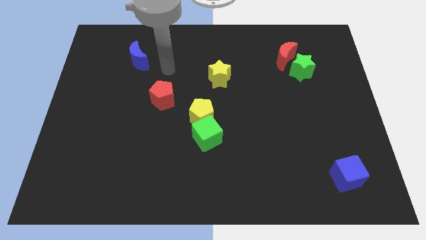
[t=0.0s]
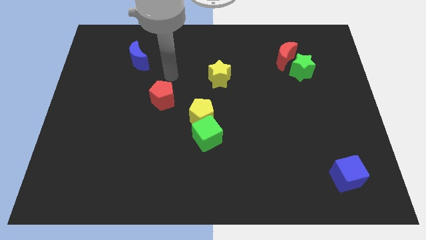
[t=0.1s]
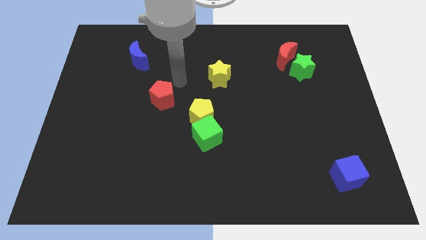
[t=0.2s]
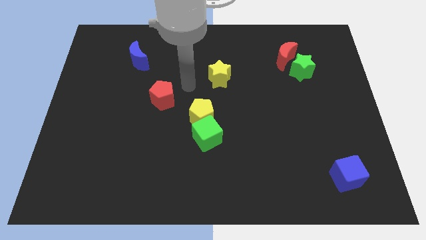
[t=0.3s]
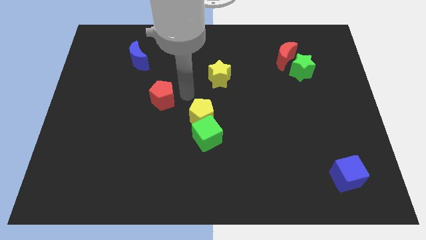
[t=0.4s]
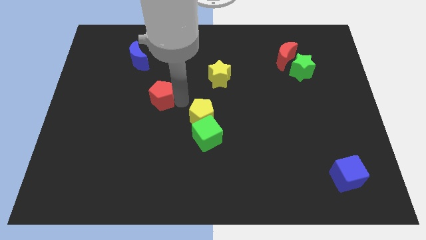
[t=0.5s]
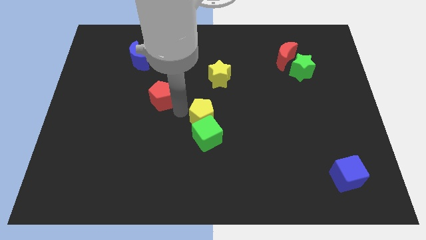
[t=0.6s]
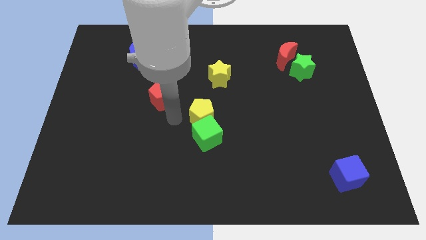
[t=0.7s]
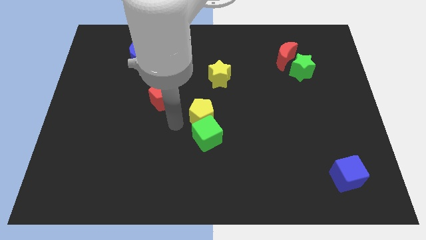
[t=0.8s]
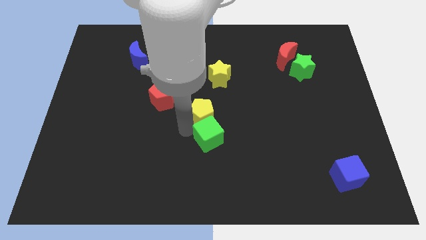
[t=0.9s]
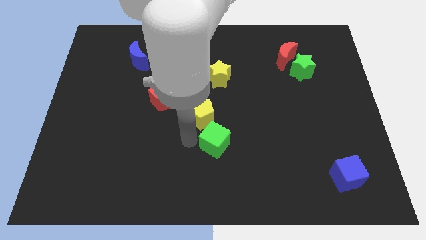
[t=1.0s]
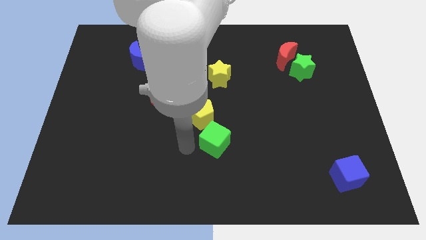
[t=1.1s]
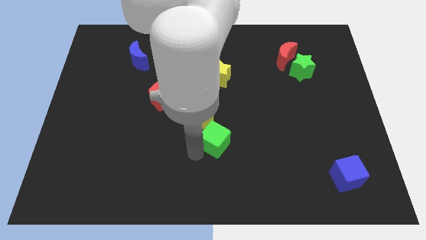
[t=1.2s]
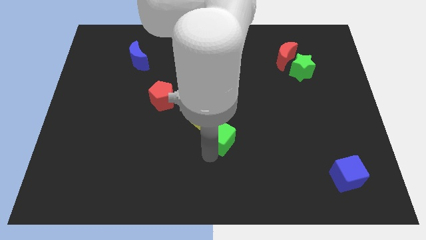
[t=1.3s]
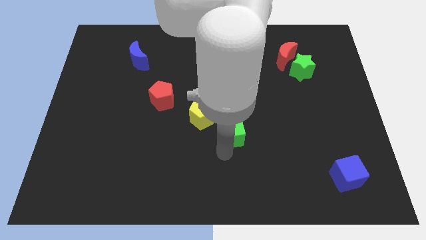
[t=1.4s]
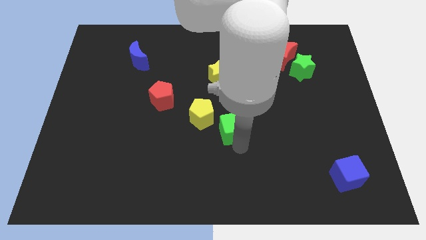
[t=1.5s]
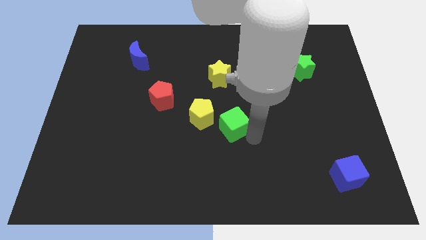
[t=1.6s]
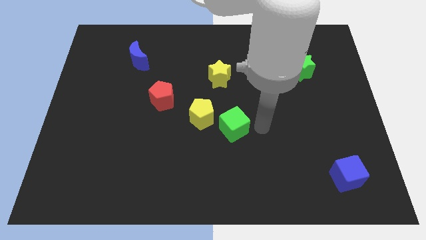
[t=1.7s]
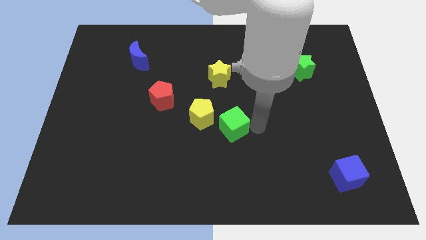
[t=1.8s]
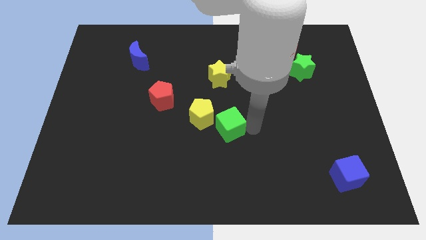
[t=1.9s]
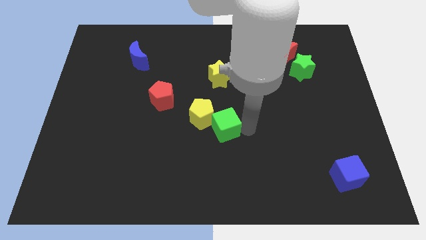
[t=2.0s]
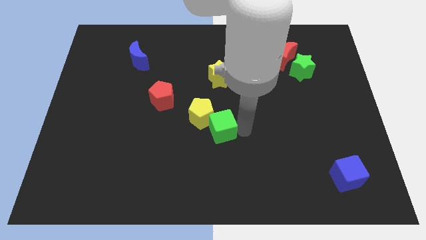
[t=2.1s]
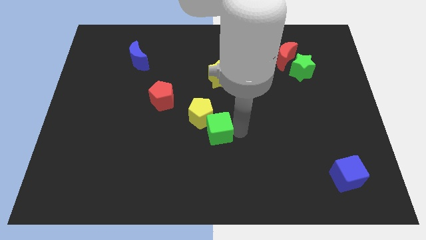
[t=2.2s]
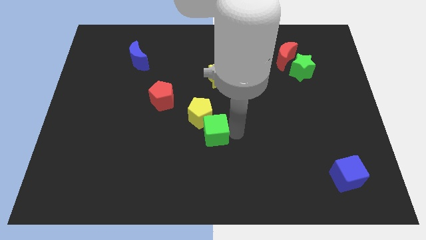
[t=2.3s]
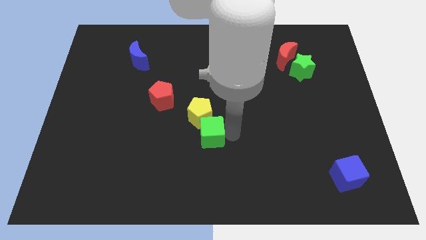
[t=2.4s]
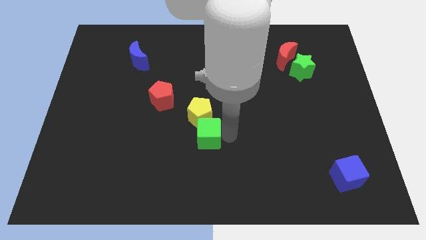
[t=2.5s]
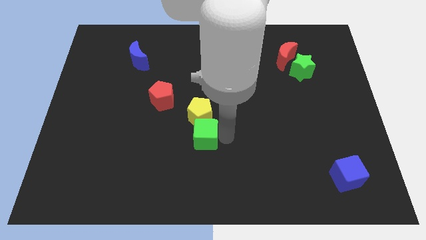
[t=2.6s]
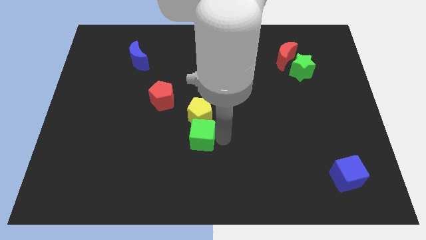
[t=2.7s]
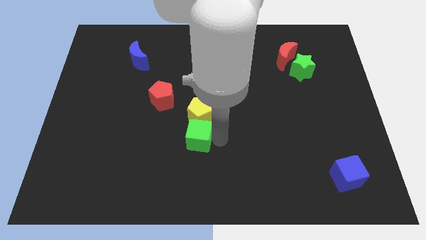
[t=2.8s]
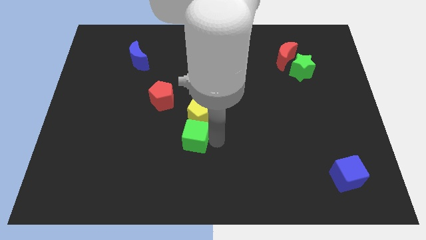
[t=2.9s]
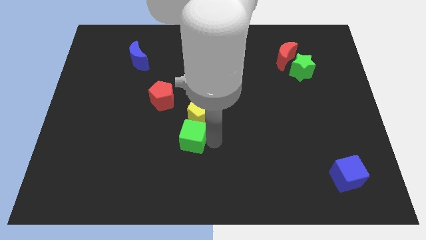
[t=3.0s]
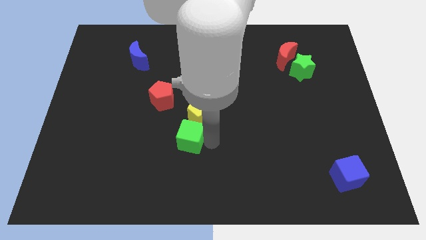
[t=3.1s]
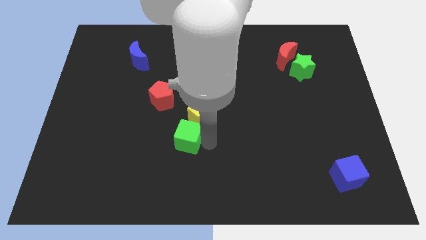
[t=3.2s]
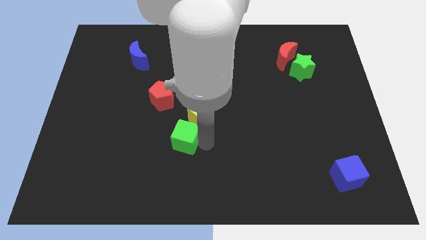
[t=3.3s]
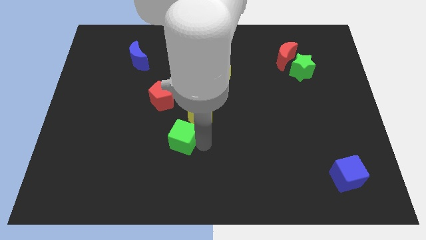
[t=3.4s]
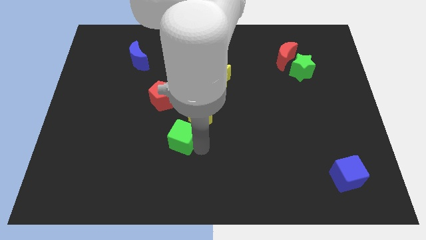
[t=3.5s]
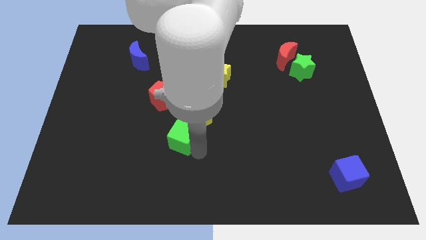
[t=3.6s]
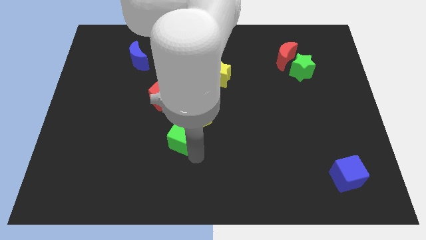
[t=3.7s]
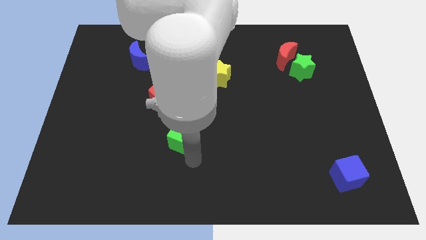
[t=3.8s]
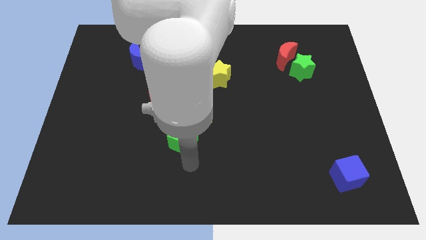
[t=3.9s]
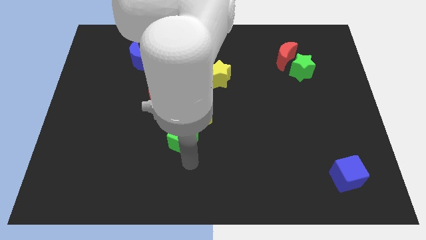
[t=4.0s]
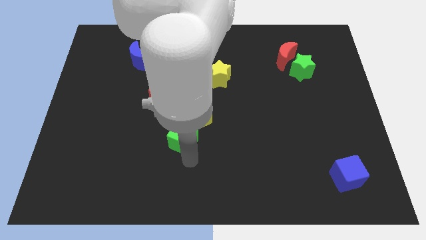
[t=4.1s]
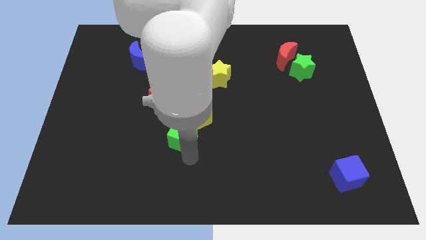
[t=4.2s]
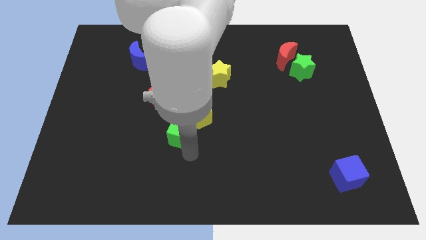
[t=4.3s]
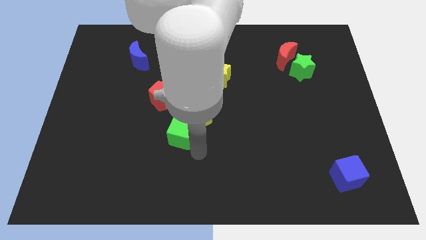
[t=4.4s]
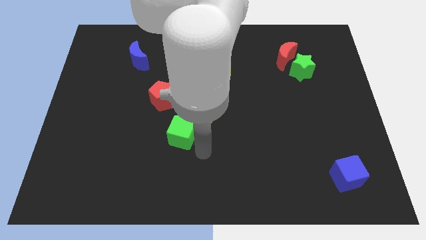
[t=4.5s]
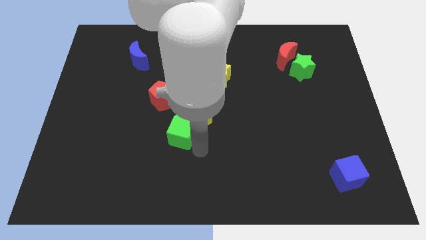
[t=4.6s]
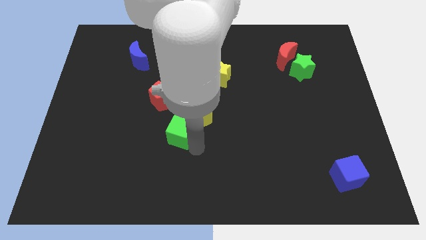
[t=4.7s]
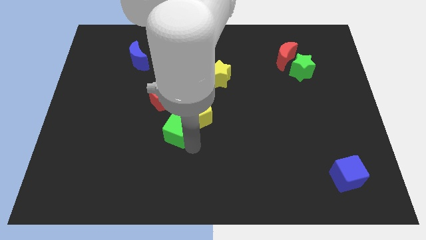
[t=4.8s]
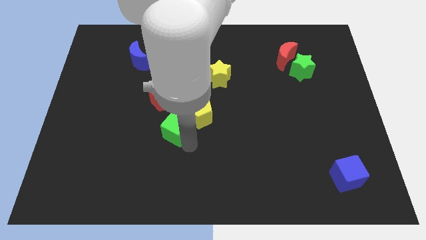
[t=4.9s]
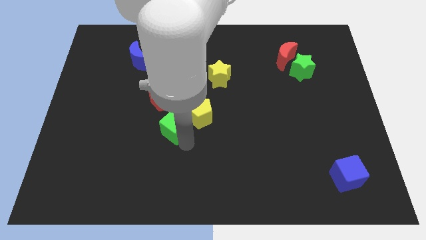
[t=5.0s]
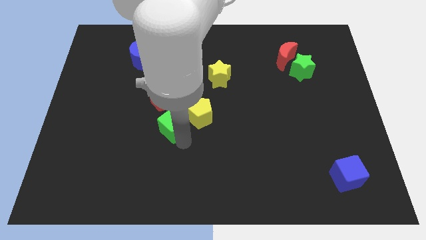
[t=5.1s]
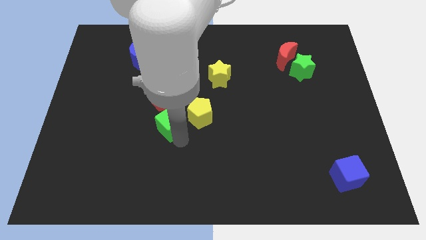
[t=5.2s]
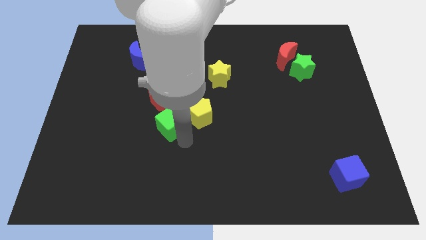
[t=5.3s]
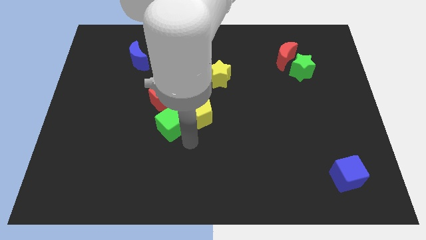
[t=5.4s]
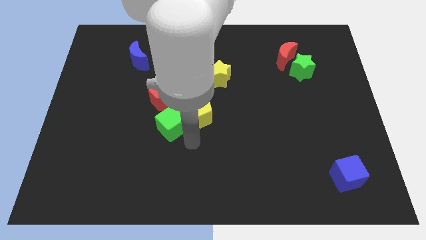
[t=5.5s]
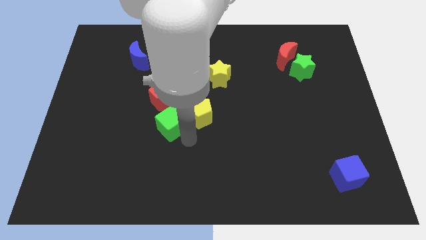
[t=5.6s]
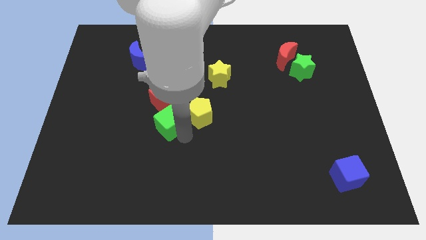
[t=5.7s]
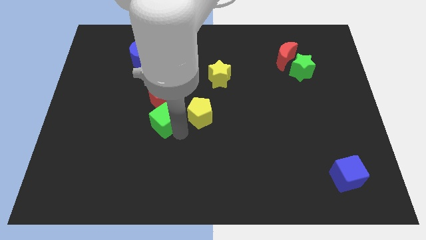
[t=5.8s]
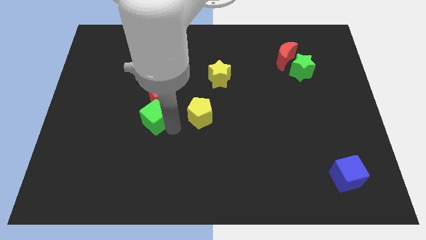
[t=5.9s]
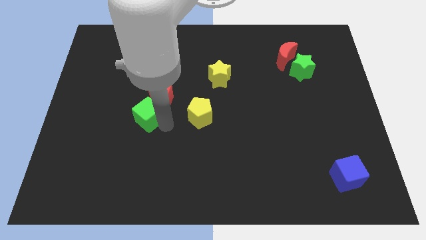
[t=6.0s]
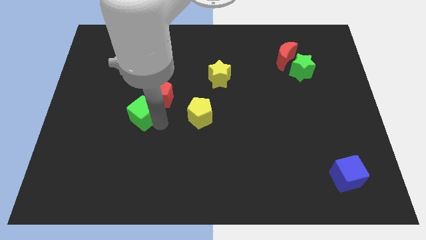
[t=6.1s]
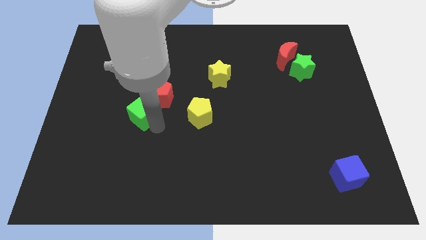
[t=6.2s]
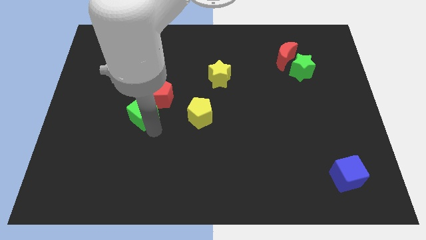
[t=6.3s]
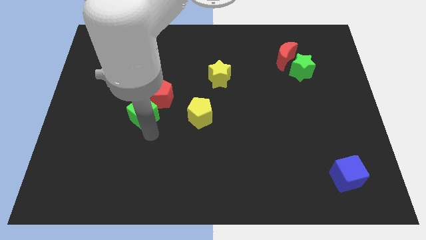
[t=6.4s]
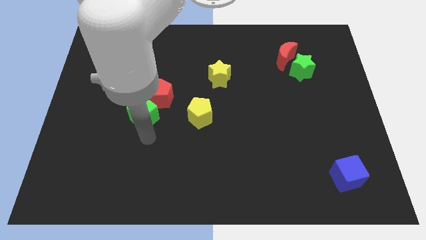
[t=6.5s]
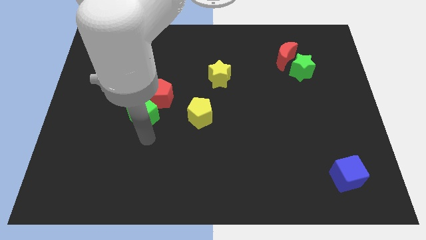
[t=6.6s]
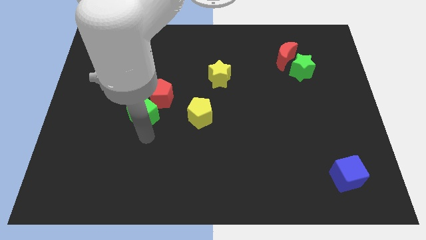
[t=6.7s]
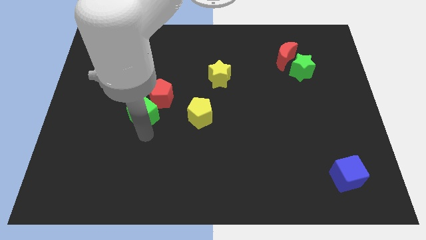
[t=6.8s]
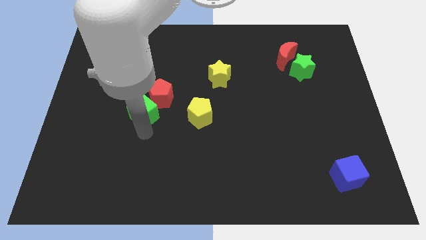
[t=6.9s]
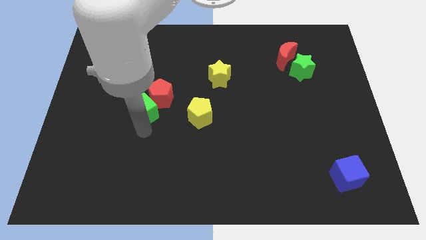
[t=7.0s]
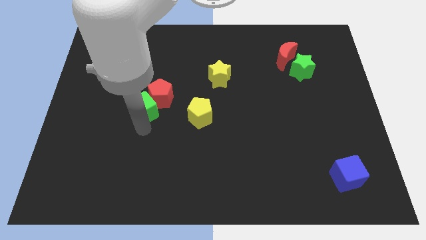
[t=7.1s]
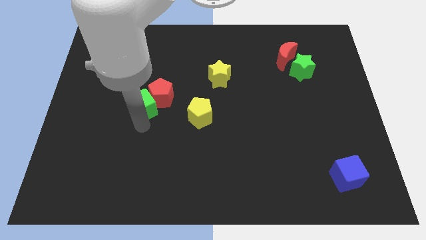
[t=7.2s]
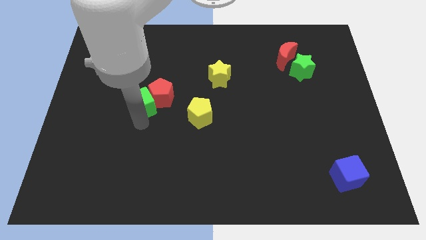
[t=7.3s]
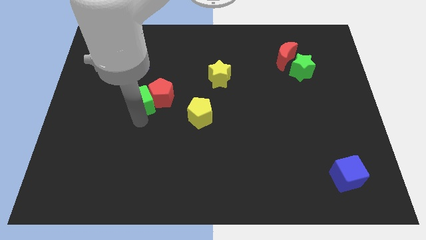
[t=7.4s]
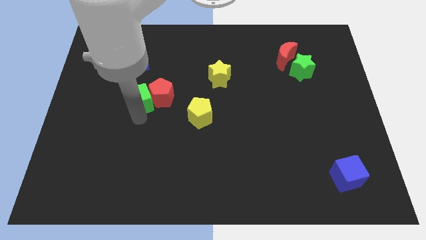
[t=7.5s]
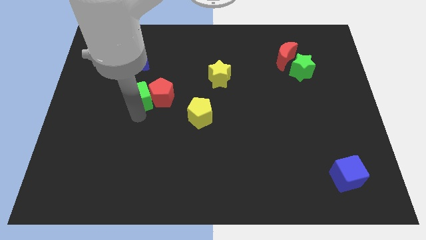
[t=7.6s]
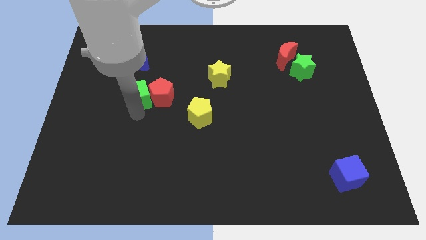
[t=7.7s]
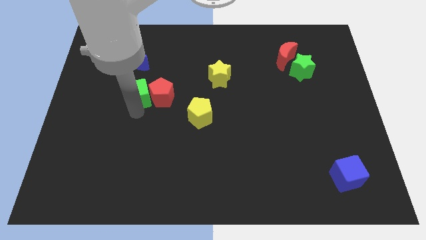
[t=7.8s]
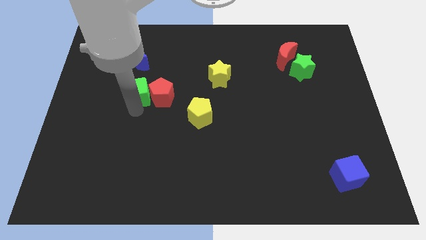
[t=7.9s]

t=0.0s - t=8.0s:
slide the green cube diagonally up and left
